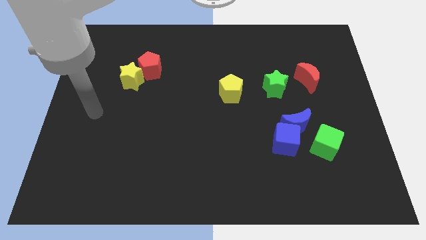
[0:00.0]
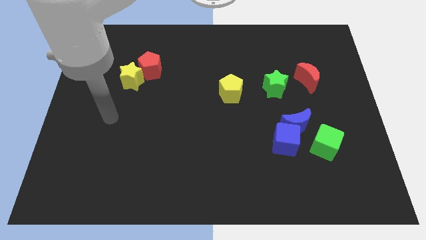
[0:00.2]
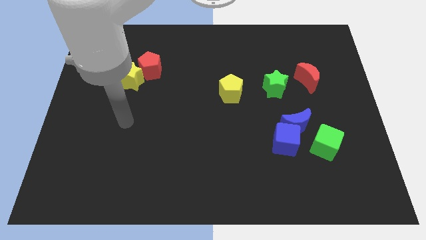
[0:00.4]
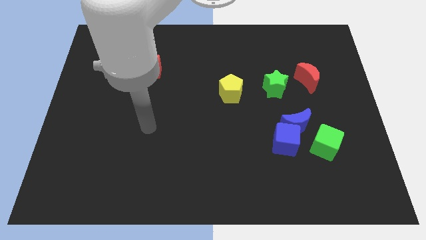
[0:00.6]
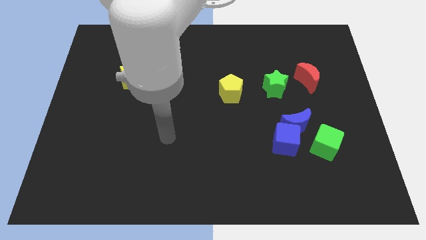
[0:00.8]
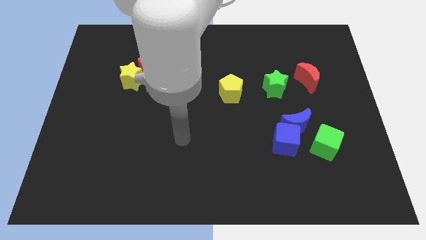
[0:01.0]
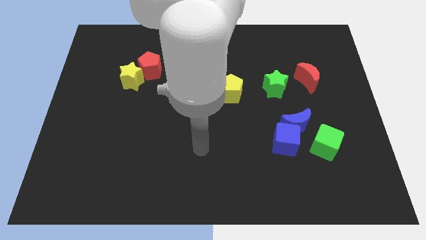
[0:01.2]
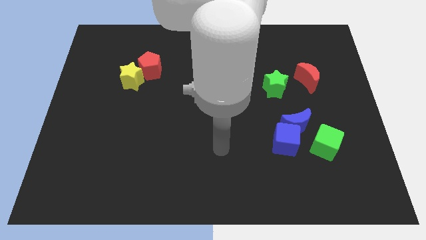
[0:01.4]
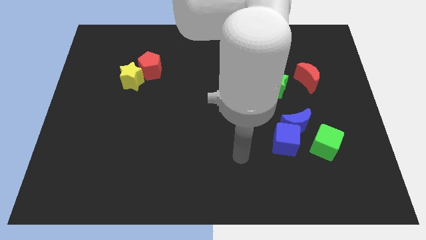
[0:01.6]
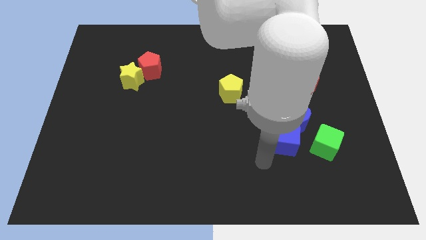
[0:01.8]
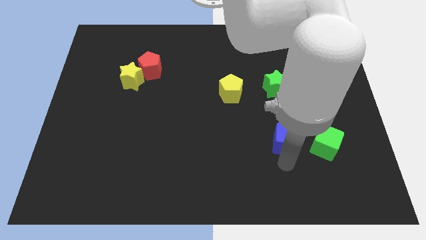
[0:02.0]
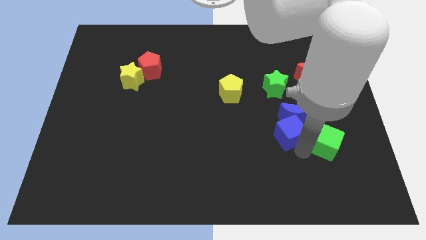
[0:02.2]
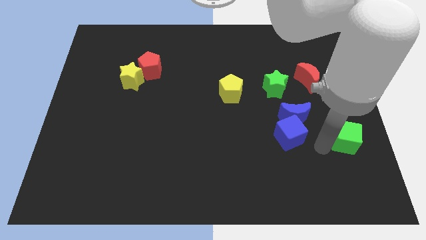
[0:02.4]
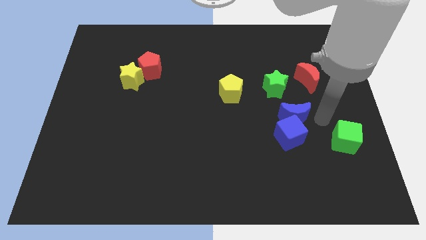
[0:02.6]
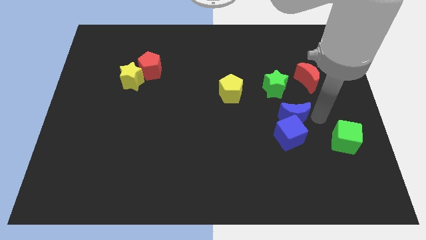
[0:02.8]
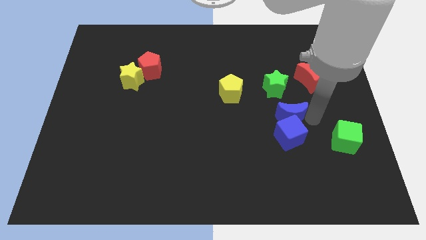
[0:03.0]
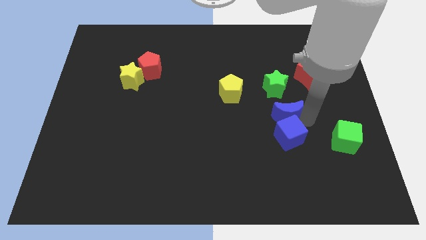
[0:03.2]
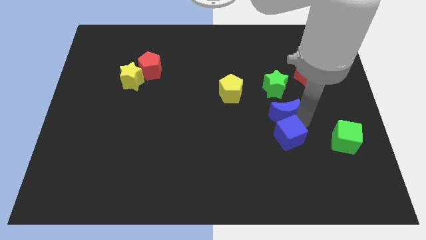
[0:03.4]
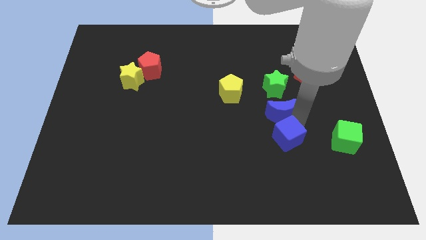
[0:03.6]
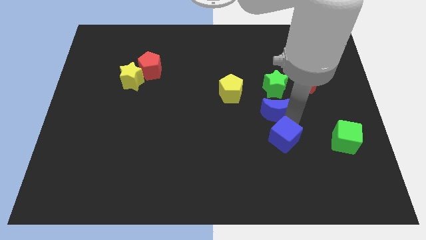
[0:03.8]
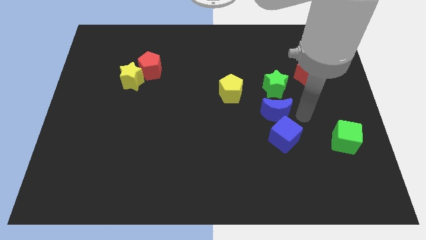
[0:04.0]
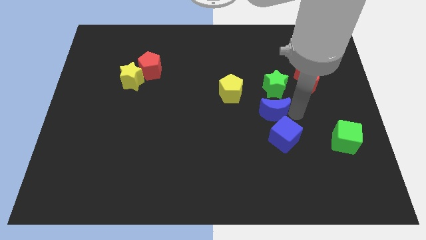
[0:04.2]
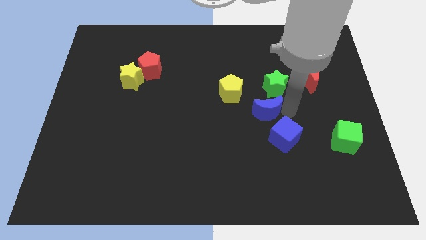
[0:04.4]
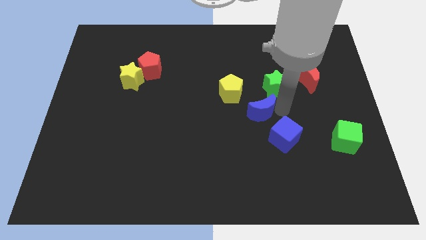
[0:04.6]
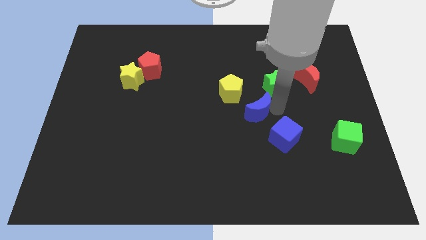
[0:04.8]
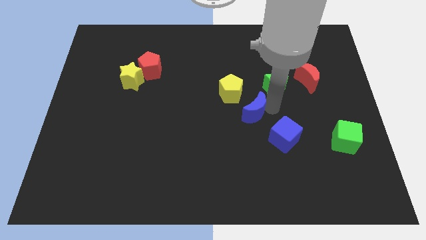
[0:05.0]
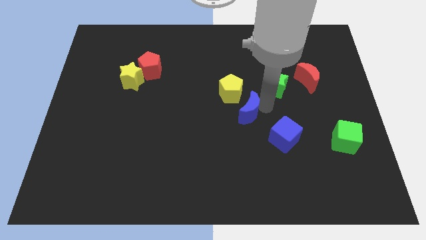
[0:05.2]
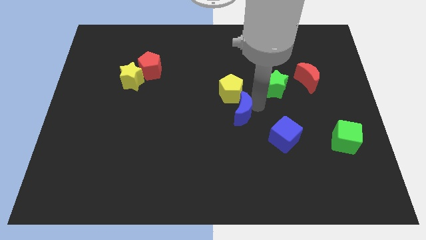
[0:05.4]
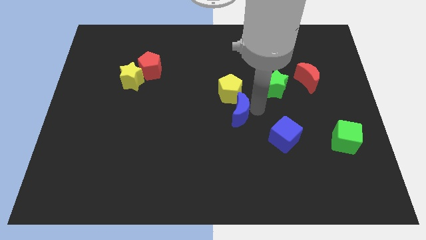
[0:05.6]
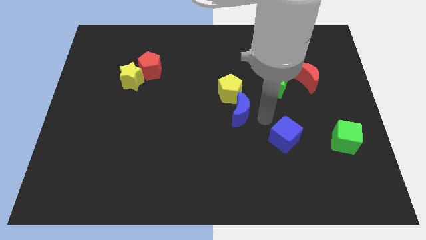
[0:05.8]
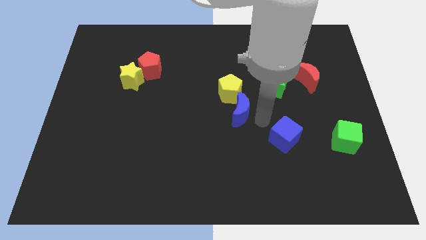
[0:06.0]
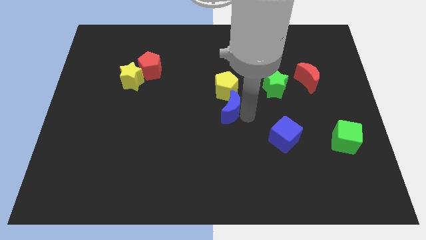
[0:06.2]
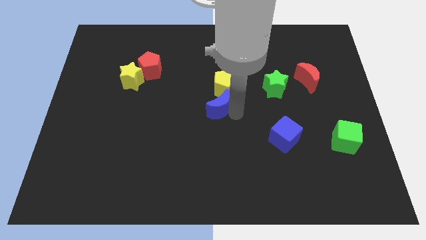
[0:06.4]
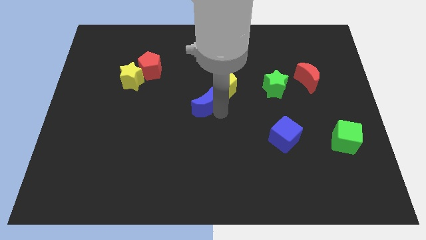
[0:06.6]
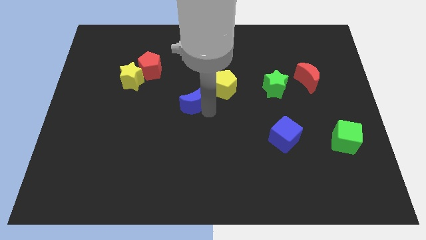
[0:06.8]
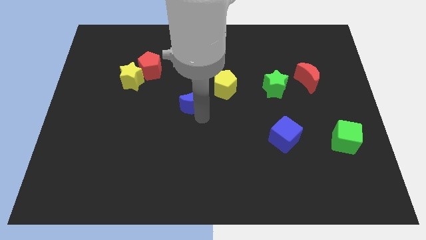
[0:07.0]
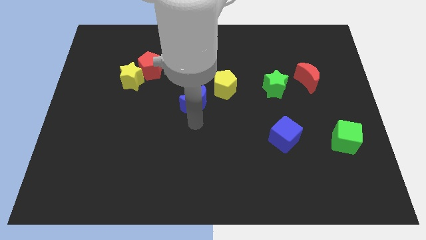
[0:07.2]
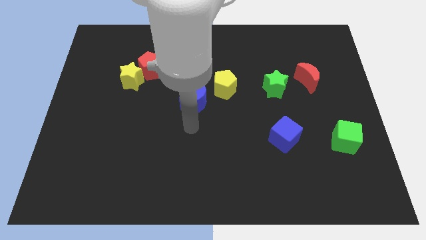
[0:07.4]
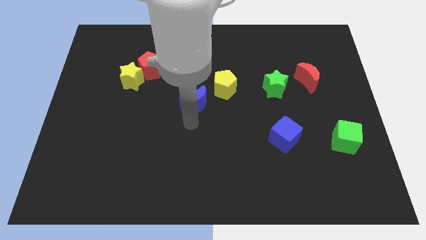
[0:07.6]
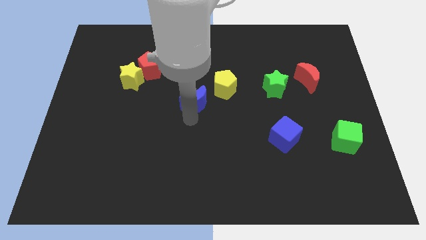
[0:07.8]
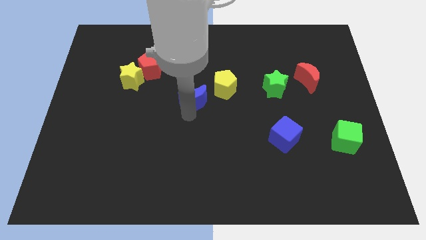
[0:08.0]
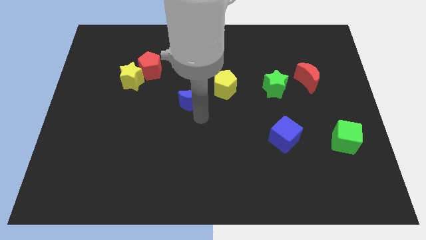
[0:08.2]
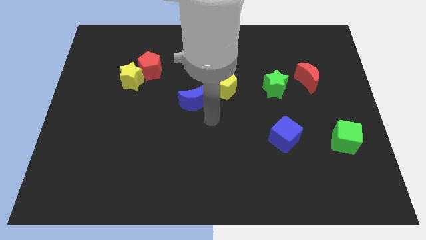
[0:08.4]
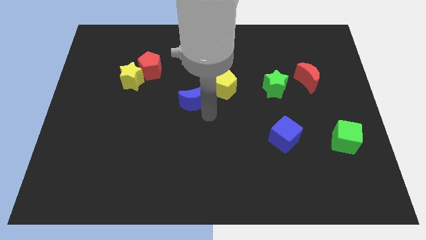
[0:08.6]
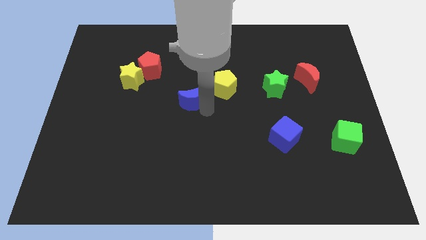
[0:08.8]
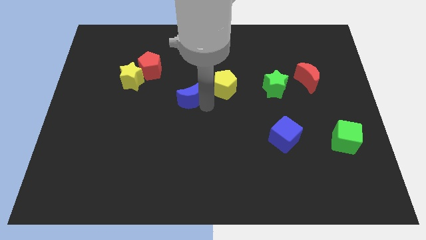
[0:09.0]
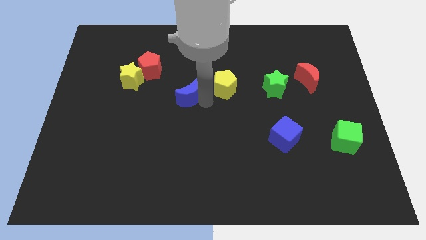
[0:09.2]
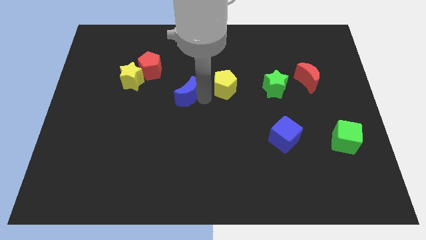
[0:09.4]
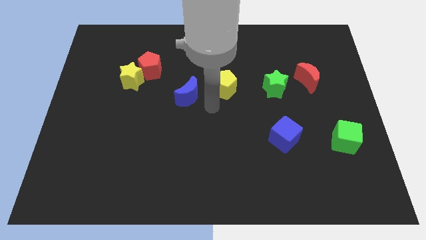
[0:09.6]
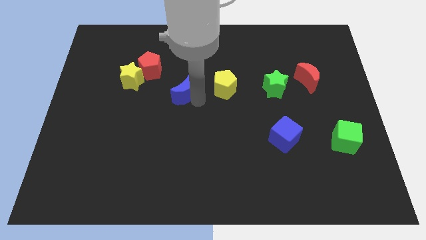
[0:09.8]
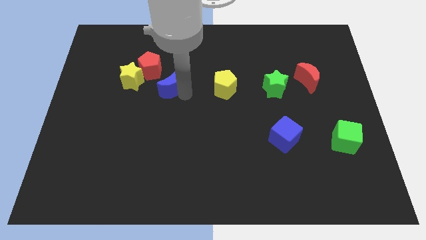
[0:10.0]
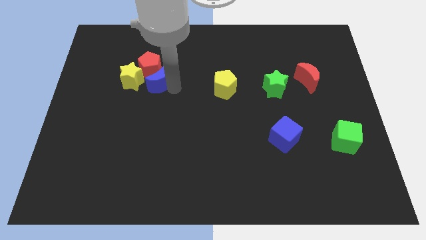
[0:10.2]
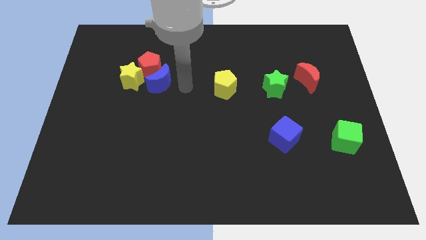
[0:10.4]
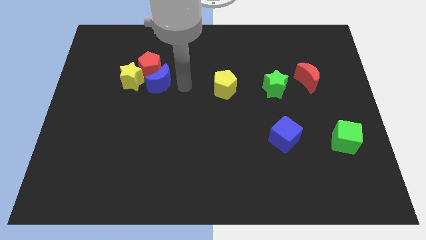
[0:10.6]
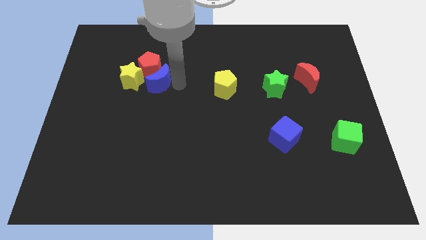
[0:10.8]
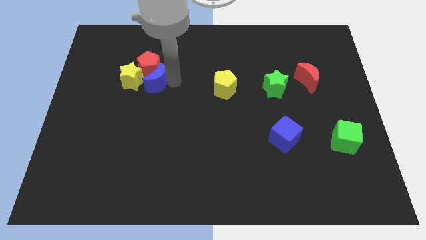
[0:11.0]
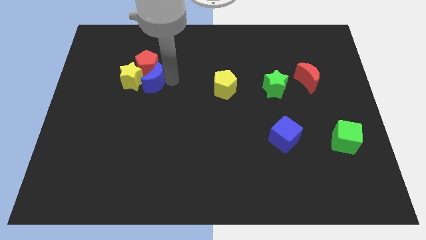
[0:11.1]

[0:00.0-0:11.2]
put the blue moon towards the yellow star

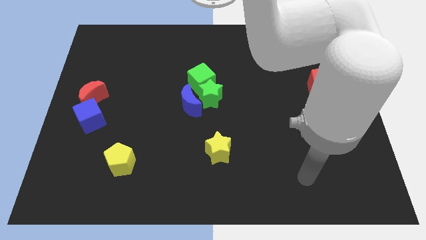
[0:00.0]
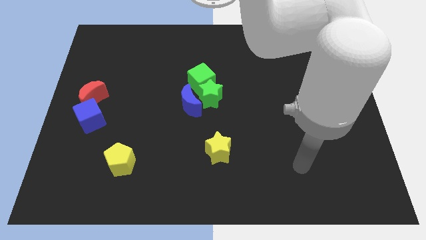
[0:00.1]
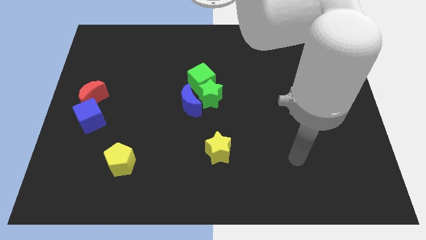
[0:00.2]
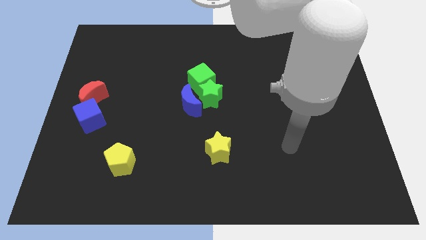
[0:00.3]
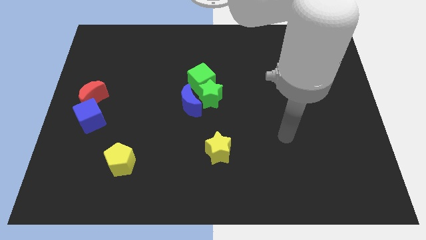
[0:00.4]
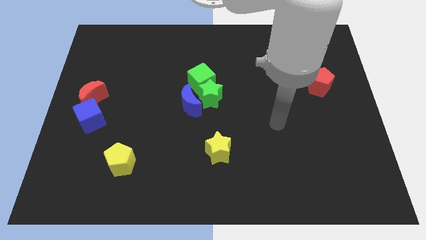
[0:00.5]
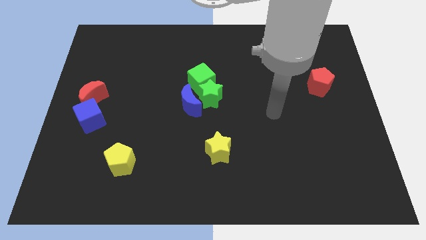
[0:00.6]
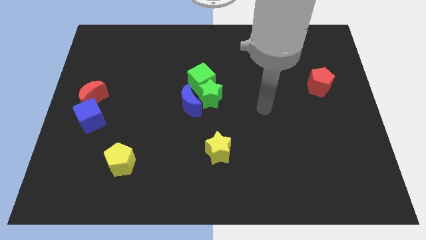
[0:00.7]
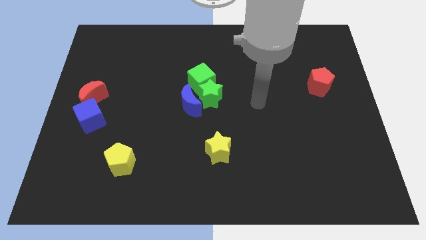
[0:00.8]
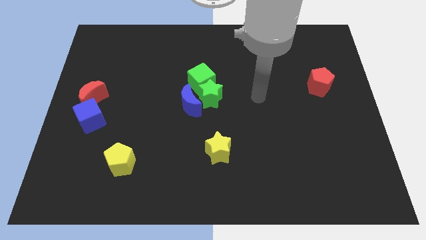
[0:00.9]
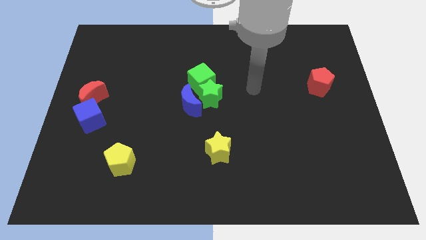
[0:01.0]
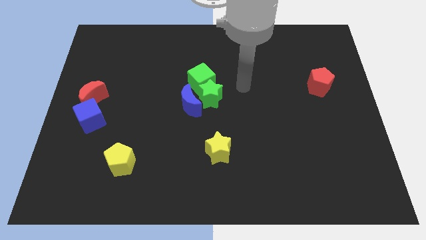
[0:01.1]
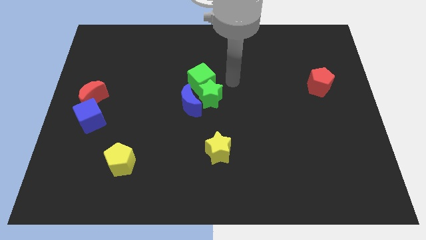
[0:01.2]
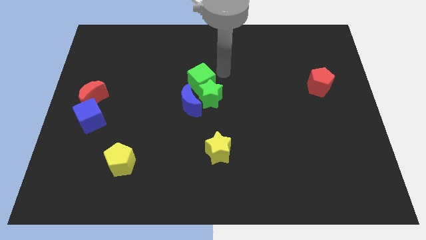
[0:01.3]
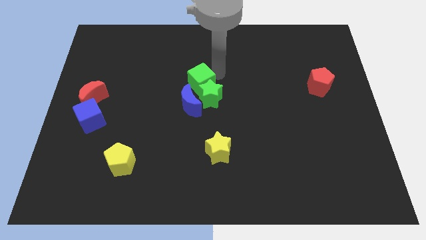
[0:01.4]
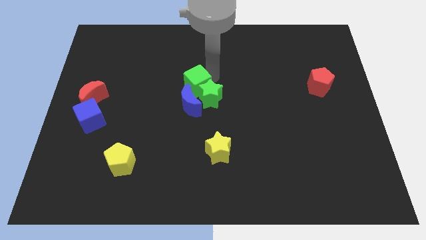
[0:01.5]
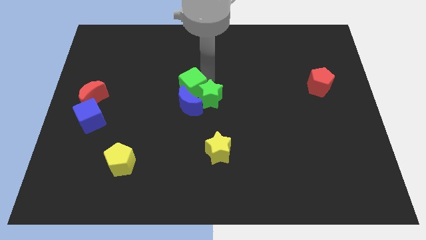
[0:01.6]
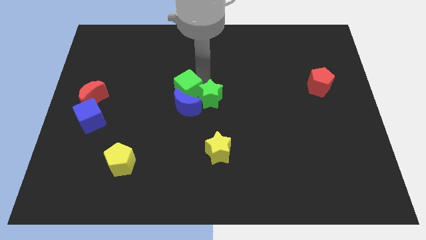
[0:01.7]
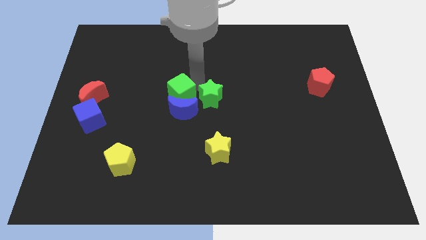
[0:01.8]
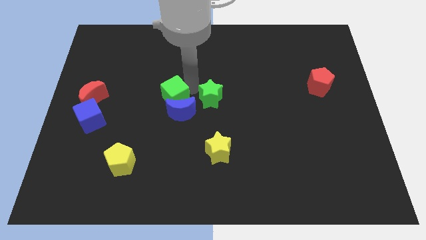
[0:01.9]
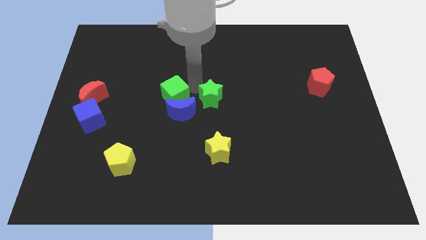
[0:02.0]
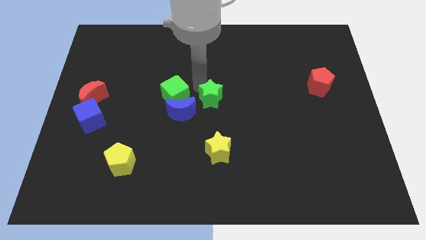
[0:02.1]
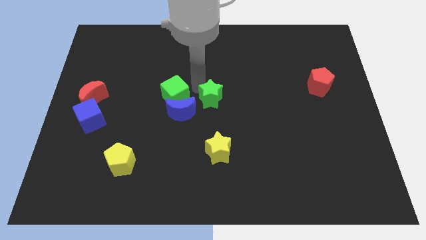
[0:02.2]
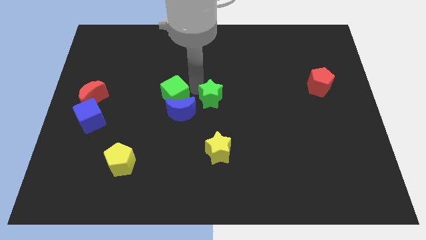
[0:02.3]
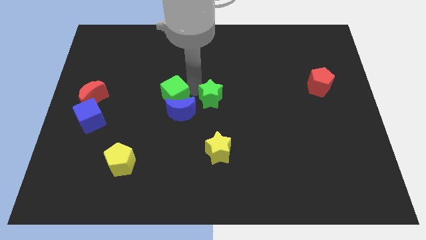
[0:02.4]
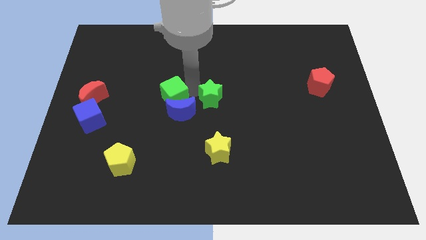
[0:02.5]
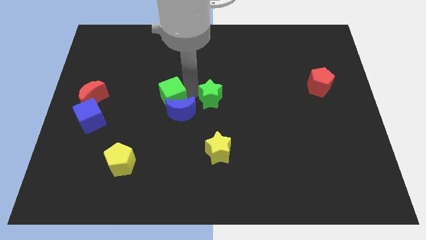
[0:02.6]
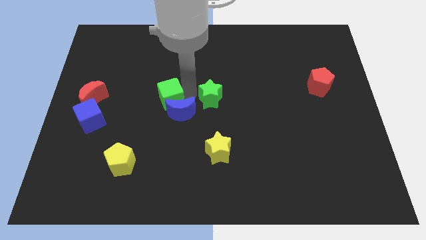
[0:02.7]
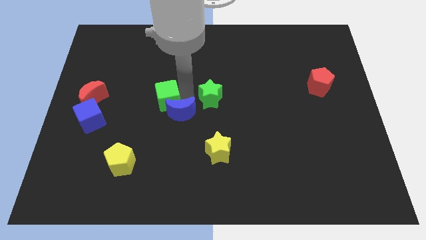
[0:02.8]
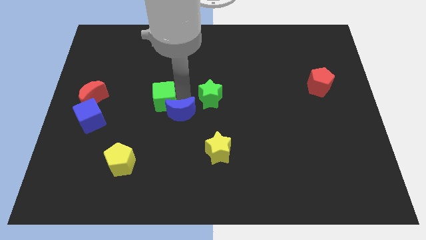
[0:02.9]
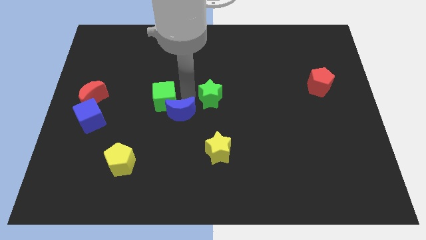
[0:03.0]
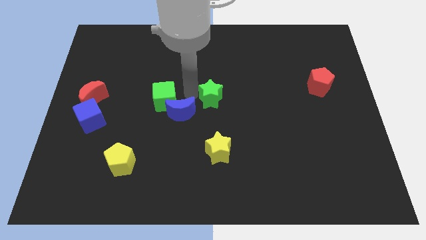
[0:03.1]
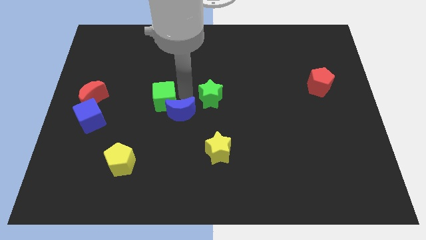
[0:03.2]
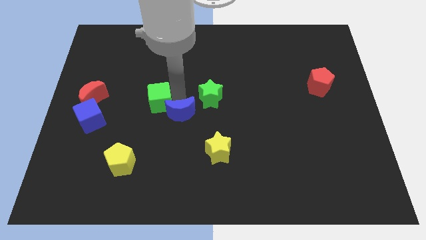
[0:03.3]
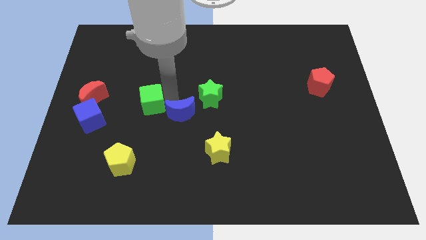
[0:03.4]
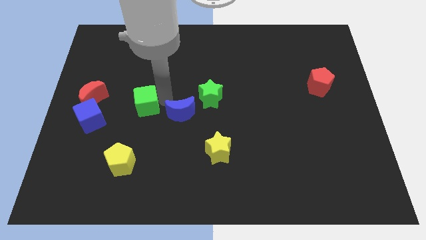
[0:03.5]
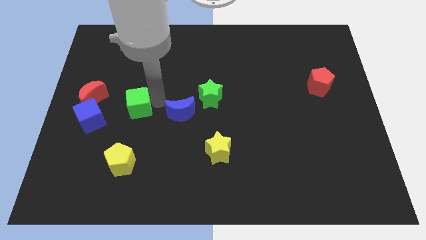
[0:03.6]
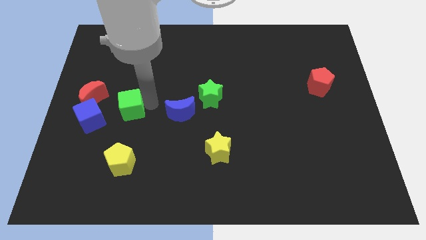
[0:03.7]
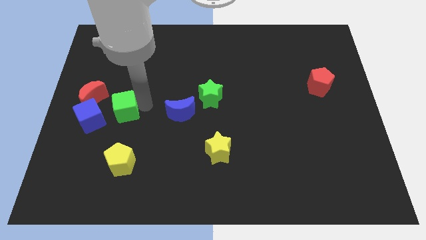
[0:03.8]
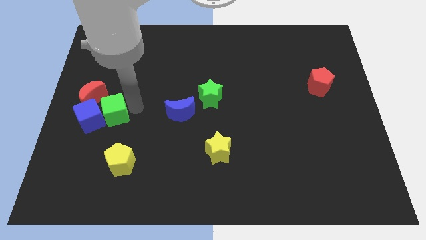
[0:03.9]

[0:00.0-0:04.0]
move the green cube next to the blue cube
